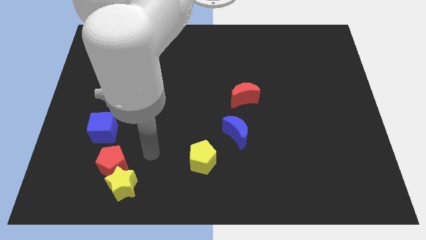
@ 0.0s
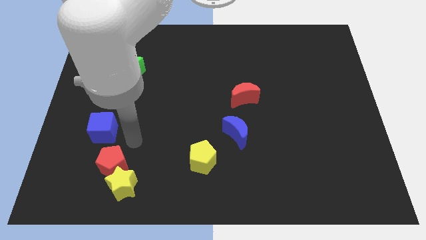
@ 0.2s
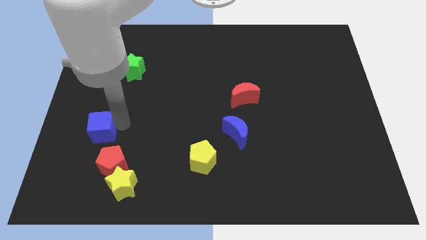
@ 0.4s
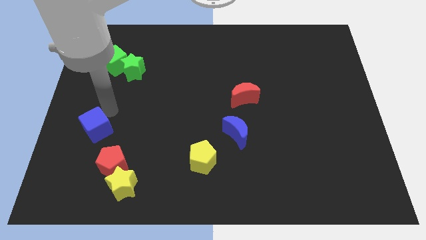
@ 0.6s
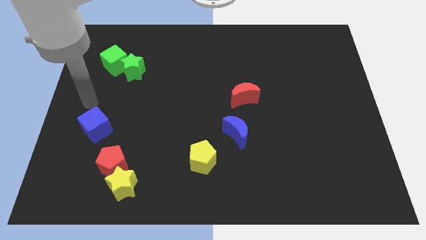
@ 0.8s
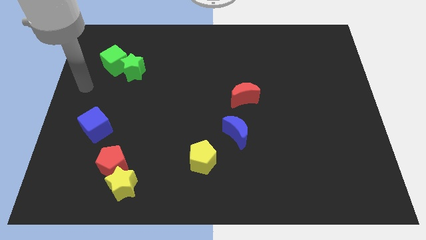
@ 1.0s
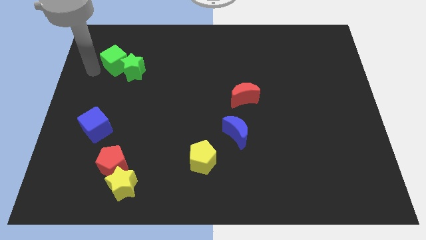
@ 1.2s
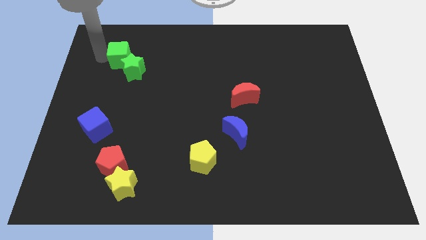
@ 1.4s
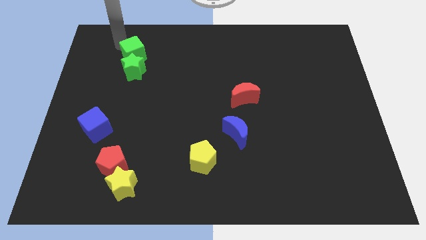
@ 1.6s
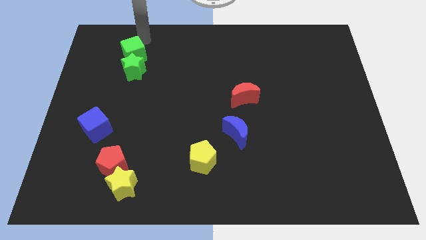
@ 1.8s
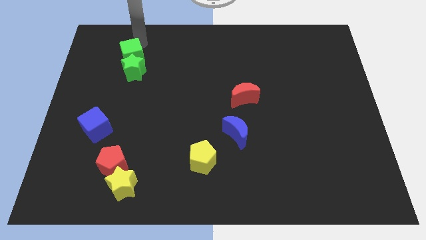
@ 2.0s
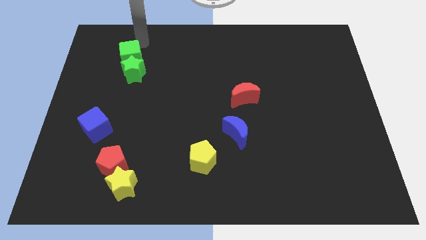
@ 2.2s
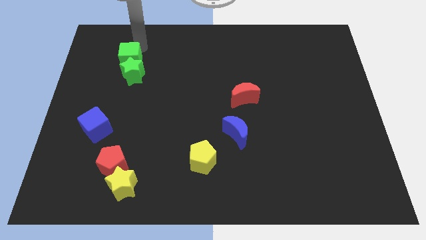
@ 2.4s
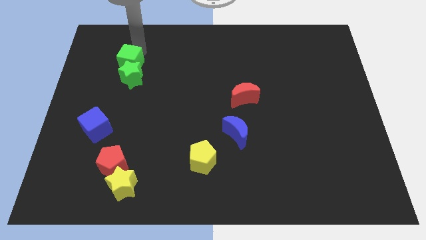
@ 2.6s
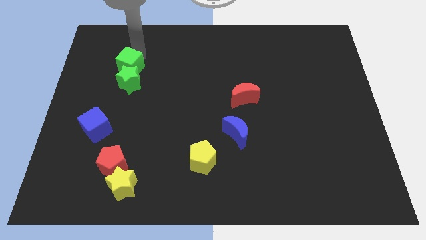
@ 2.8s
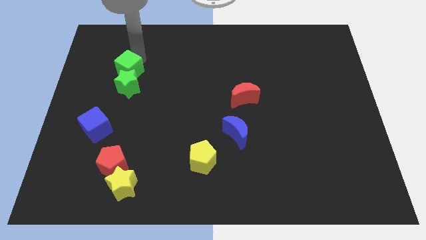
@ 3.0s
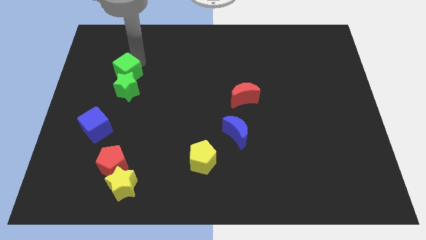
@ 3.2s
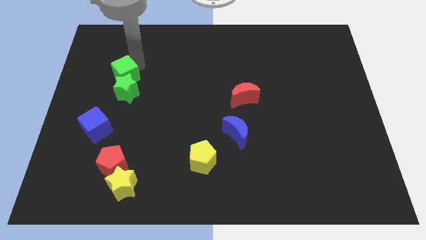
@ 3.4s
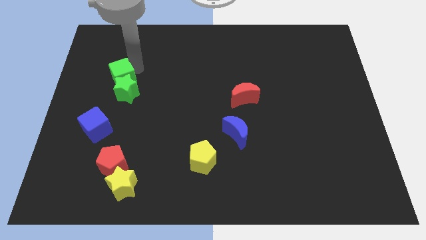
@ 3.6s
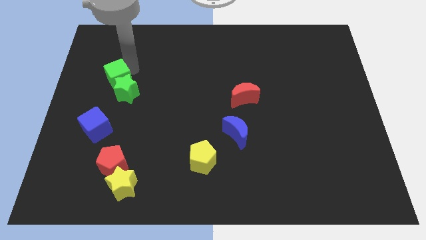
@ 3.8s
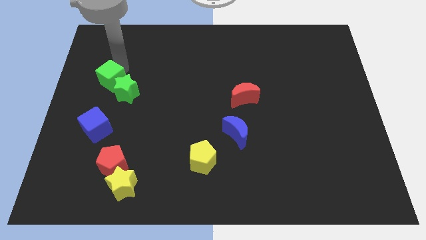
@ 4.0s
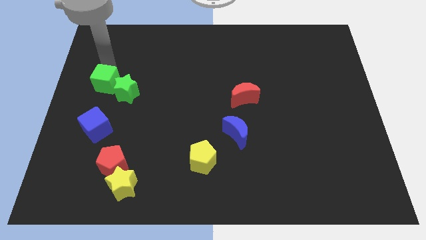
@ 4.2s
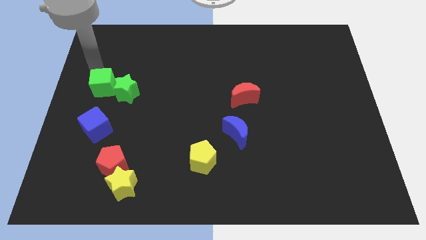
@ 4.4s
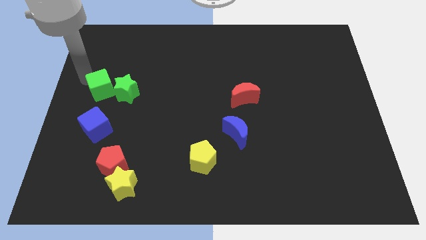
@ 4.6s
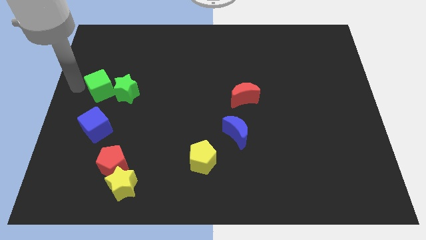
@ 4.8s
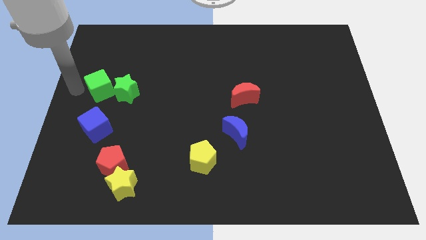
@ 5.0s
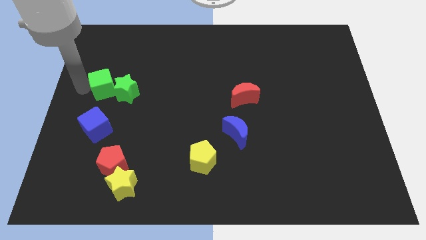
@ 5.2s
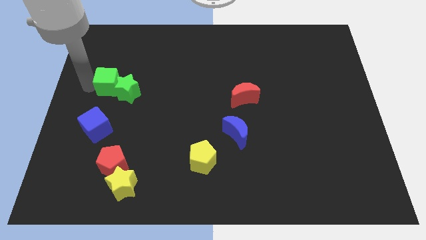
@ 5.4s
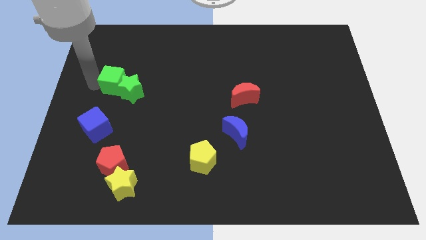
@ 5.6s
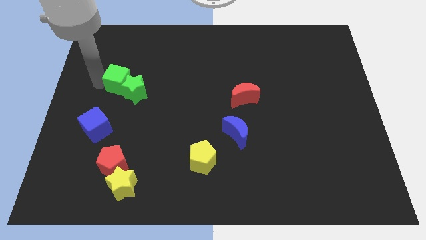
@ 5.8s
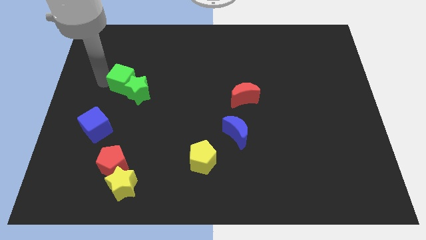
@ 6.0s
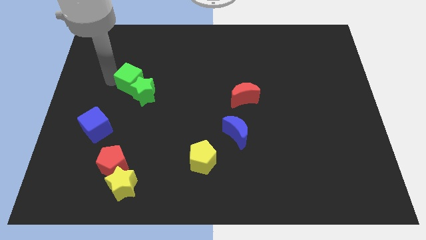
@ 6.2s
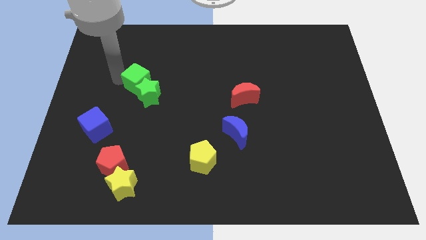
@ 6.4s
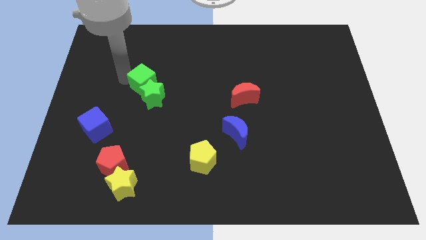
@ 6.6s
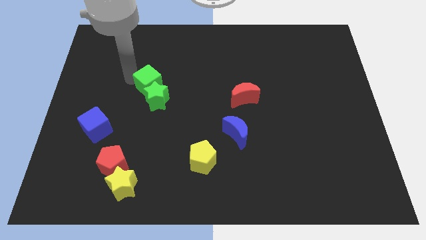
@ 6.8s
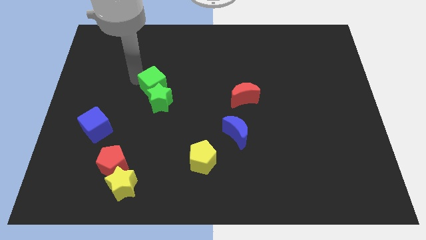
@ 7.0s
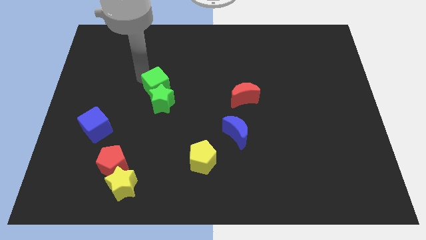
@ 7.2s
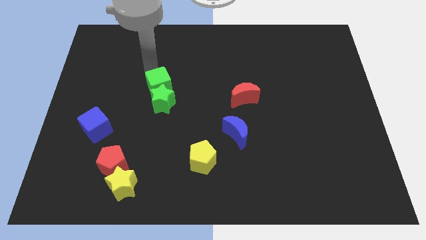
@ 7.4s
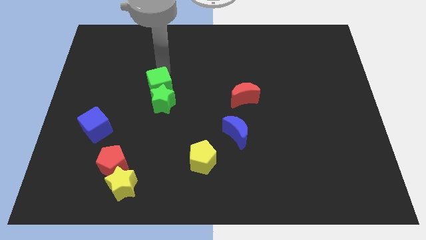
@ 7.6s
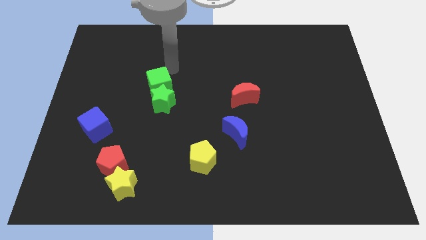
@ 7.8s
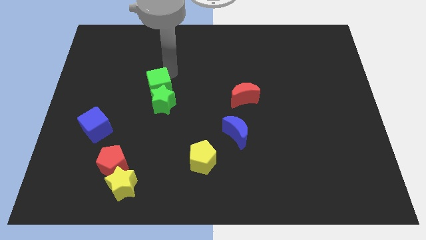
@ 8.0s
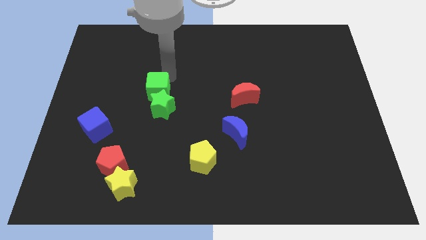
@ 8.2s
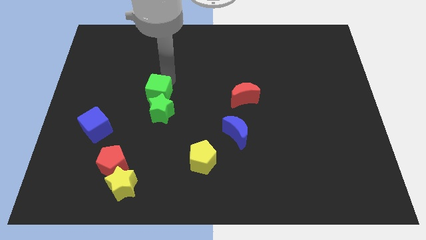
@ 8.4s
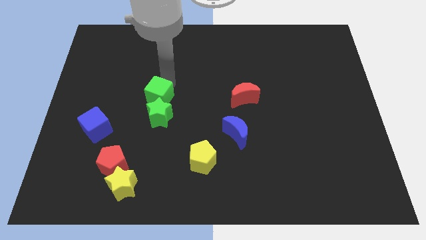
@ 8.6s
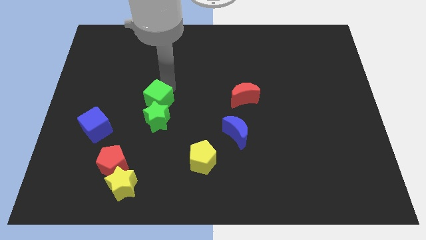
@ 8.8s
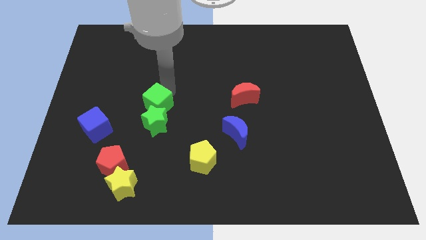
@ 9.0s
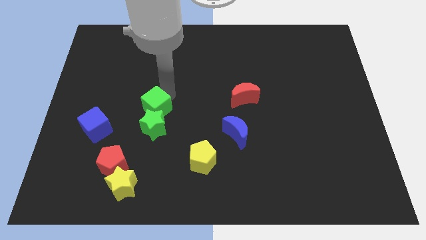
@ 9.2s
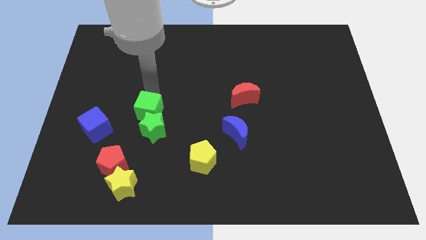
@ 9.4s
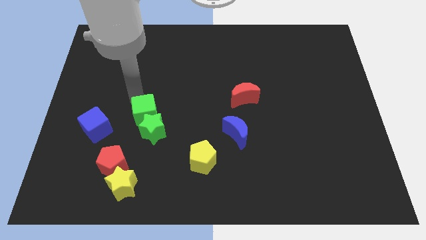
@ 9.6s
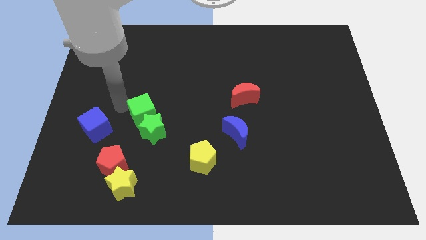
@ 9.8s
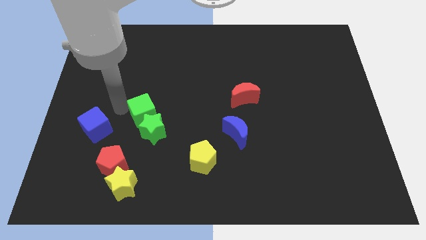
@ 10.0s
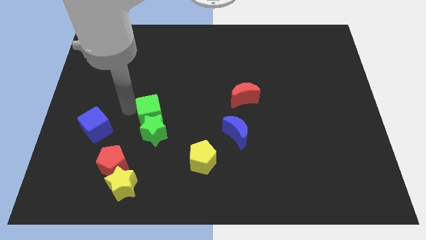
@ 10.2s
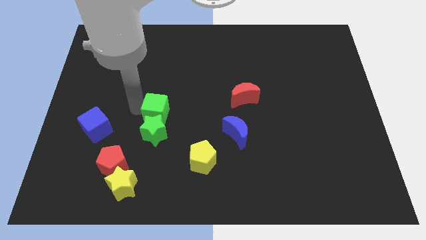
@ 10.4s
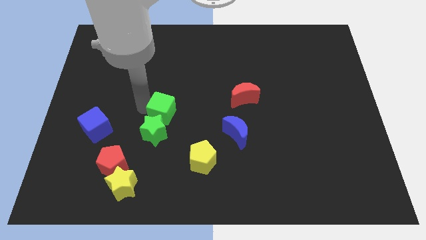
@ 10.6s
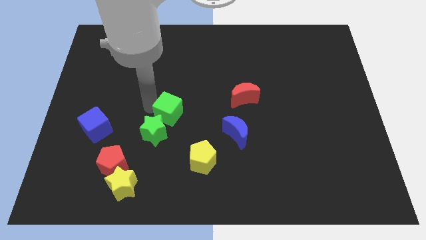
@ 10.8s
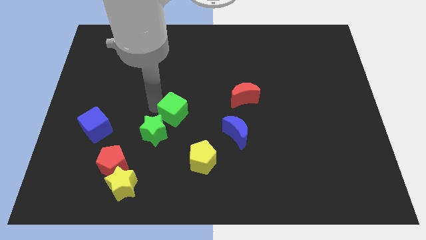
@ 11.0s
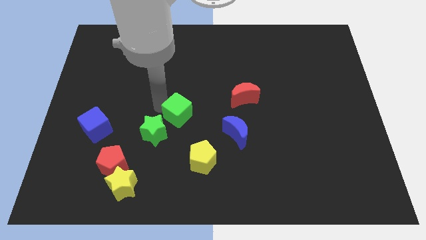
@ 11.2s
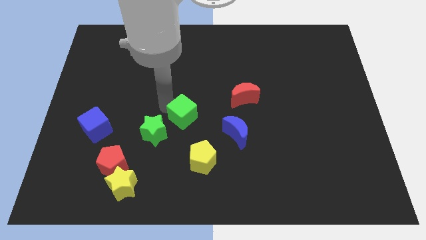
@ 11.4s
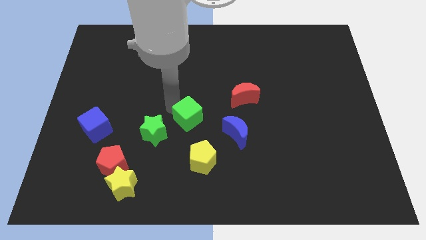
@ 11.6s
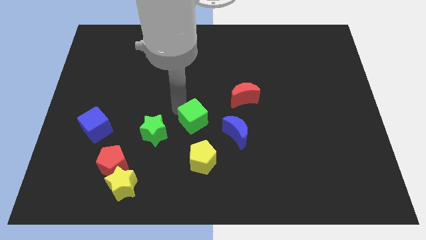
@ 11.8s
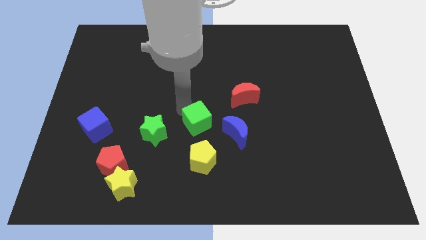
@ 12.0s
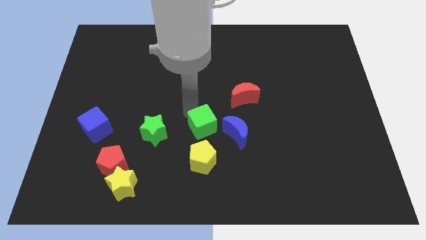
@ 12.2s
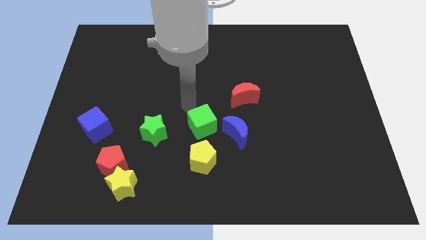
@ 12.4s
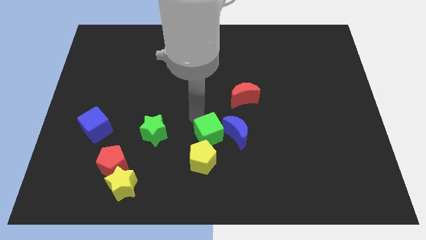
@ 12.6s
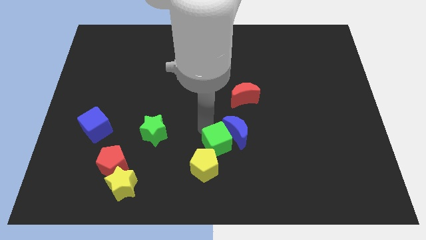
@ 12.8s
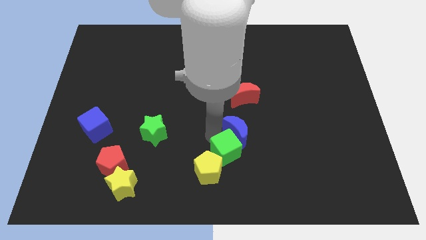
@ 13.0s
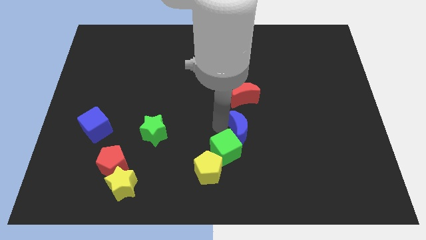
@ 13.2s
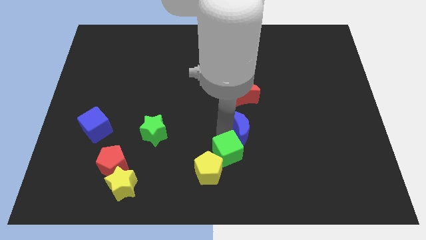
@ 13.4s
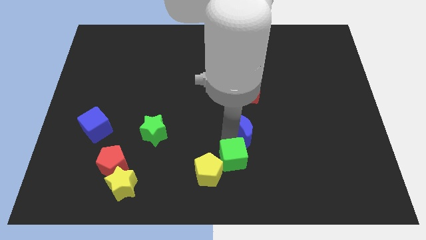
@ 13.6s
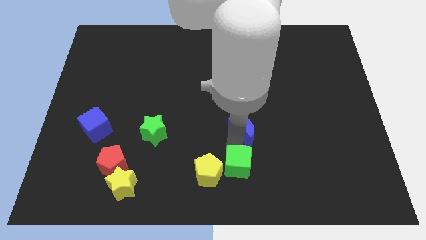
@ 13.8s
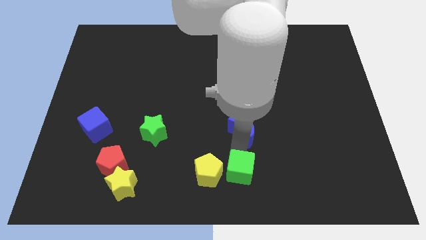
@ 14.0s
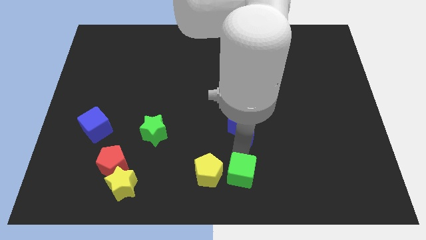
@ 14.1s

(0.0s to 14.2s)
move the green cube diagonally down and to the right of the yellow pentagon

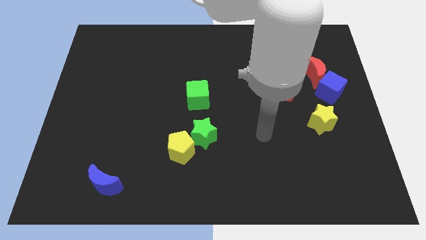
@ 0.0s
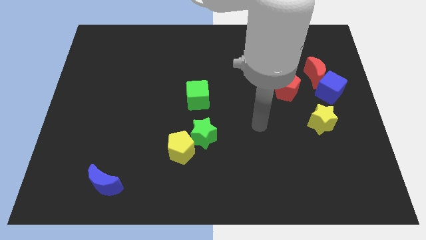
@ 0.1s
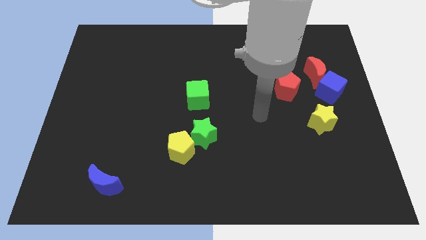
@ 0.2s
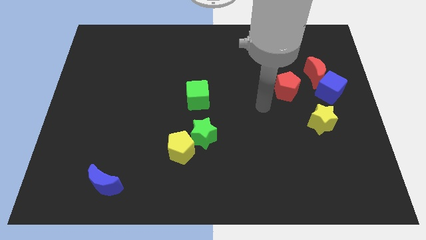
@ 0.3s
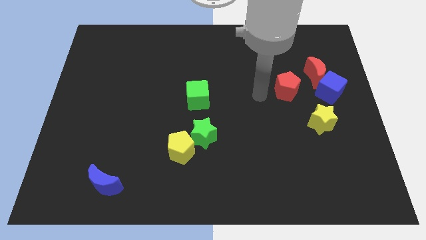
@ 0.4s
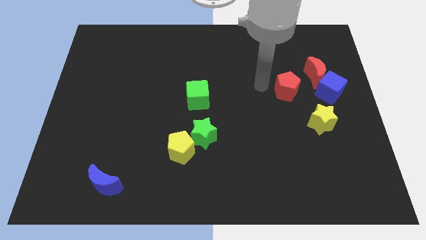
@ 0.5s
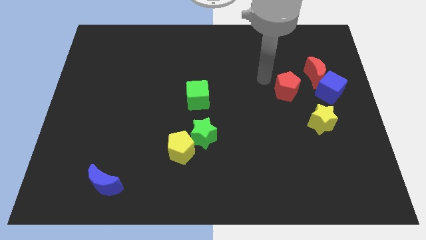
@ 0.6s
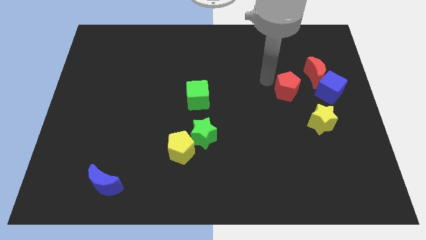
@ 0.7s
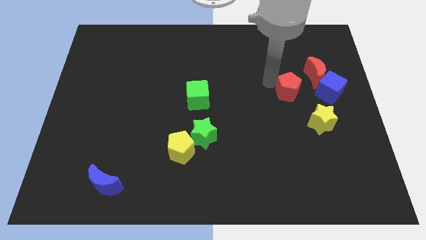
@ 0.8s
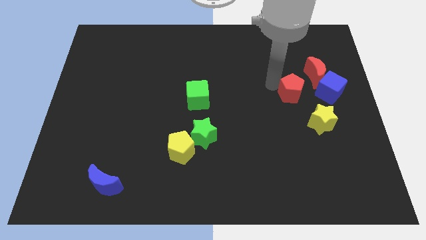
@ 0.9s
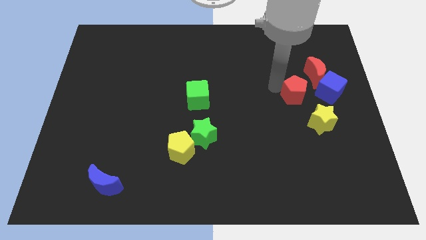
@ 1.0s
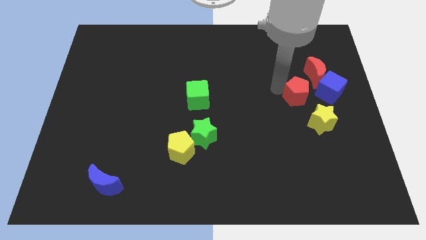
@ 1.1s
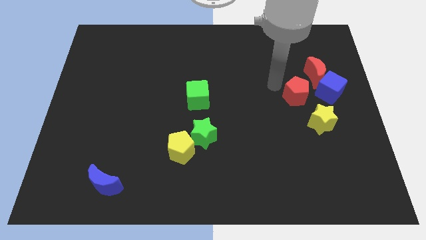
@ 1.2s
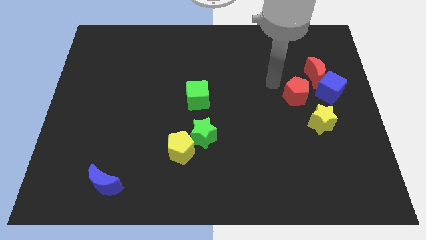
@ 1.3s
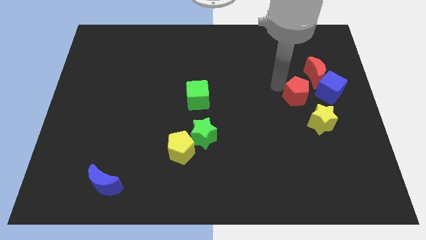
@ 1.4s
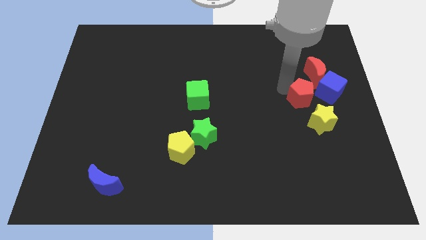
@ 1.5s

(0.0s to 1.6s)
put the red pentagon to the bottom of the red moon
